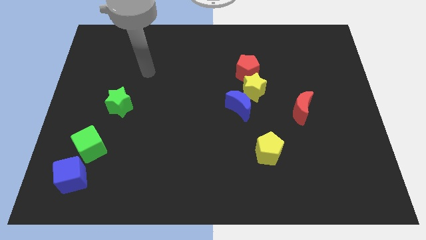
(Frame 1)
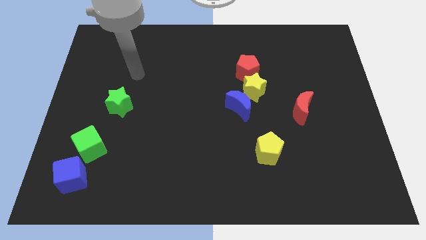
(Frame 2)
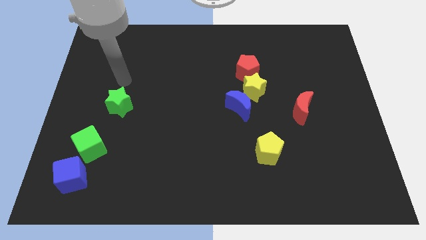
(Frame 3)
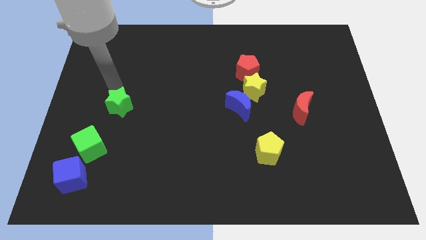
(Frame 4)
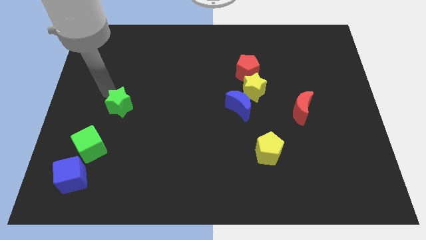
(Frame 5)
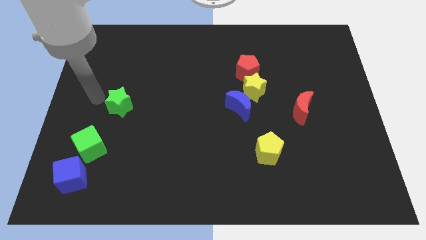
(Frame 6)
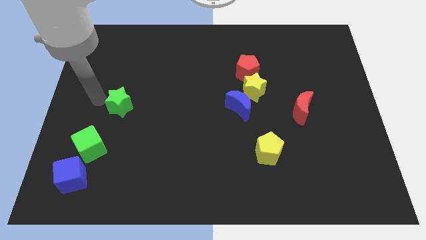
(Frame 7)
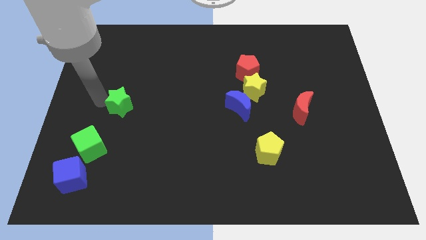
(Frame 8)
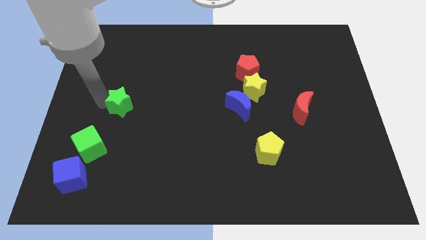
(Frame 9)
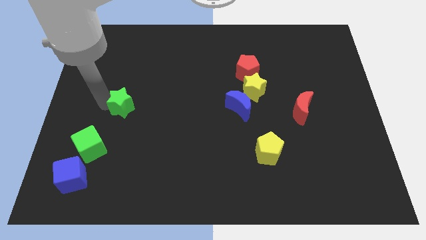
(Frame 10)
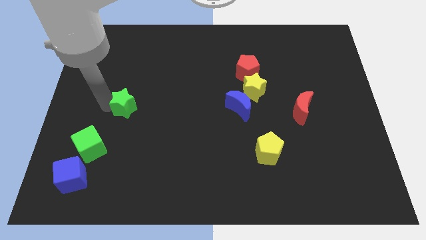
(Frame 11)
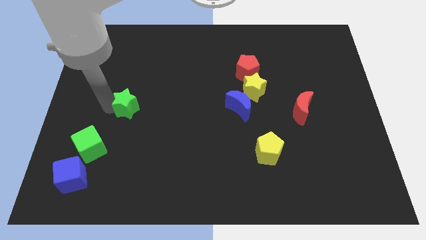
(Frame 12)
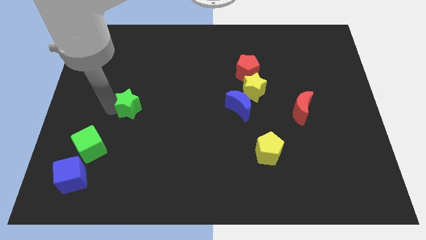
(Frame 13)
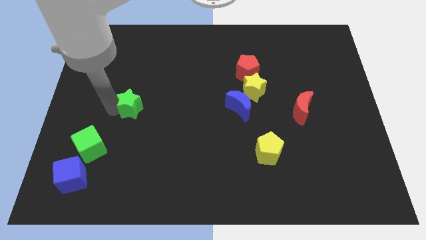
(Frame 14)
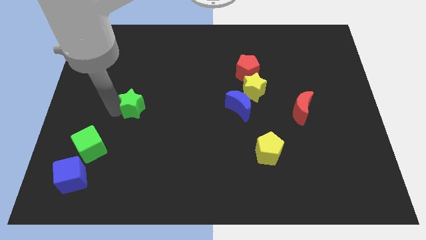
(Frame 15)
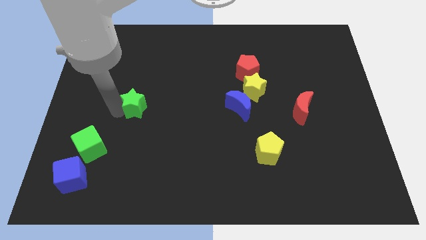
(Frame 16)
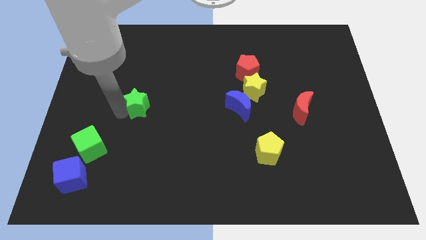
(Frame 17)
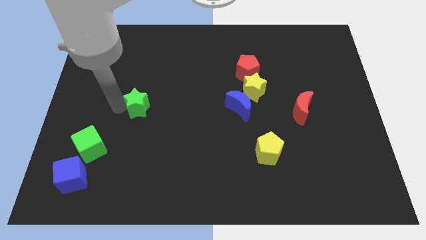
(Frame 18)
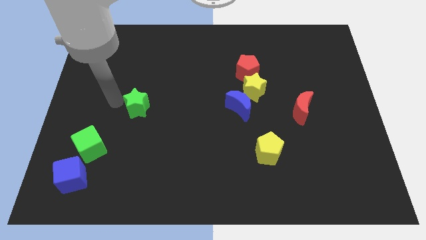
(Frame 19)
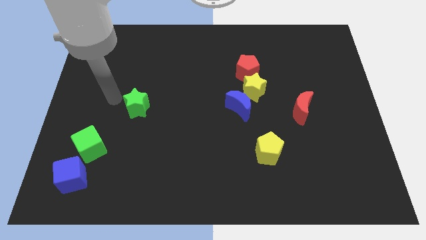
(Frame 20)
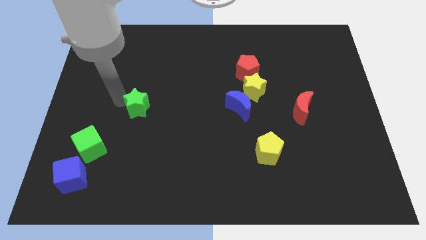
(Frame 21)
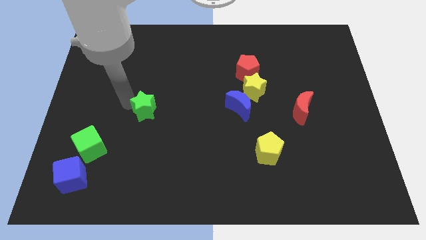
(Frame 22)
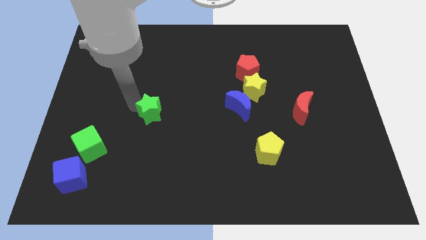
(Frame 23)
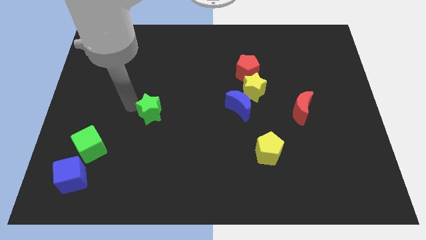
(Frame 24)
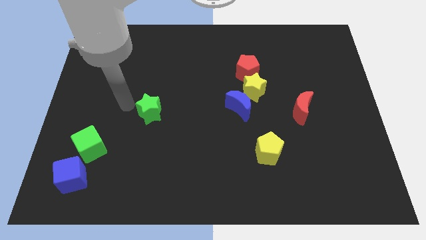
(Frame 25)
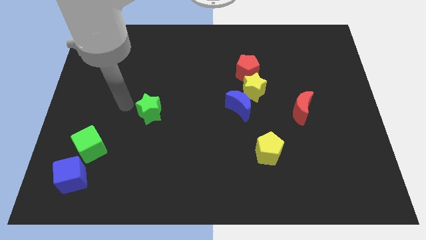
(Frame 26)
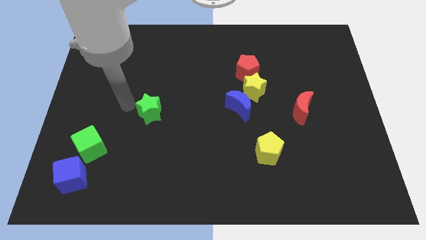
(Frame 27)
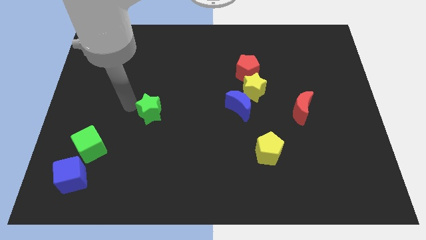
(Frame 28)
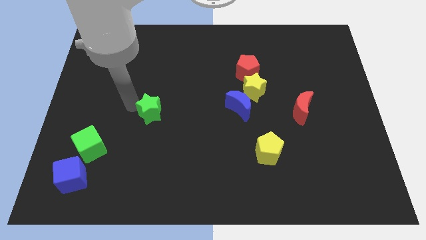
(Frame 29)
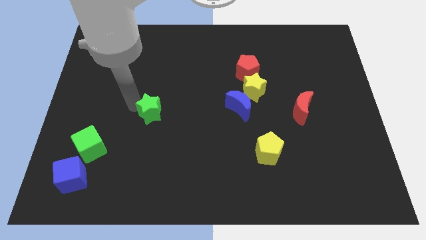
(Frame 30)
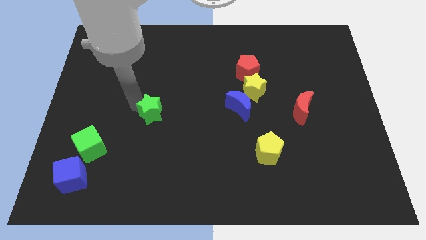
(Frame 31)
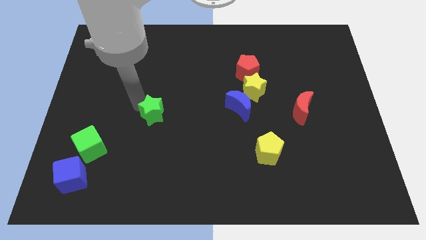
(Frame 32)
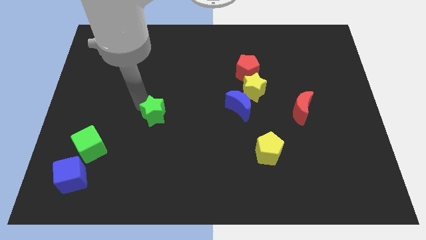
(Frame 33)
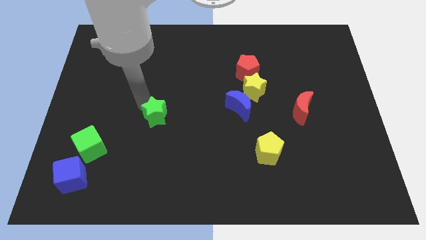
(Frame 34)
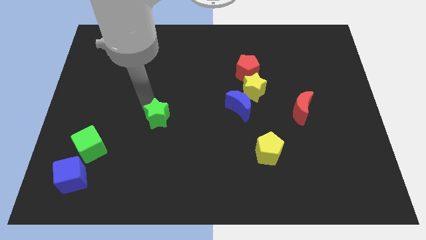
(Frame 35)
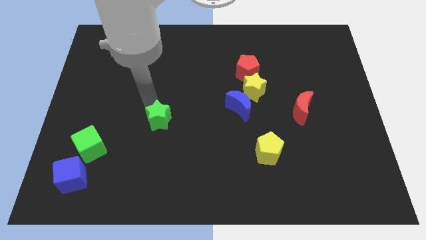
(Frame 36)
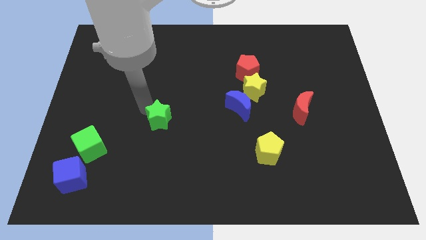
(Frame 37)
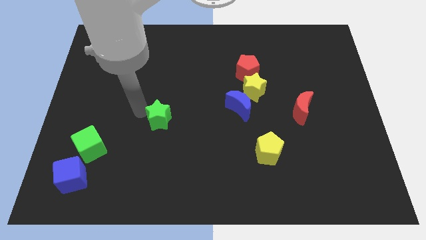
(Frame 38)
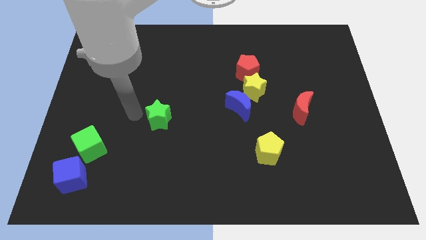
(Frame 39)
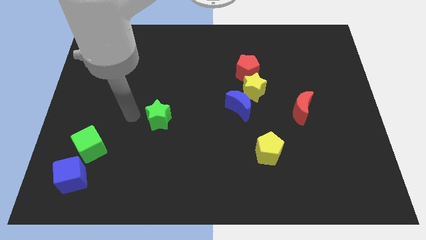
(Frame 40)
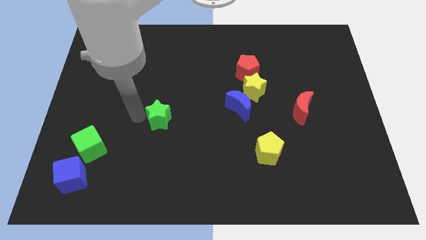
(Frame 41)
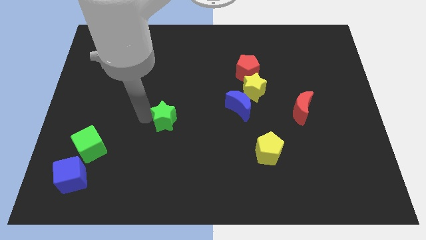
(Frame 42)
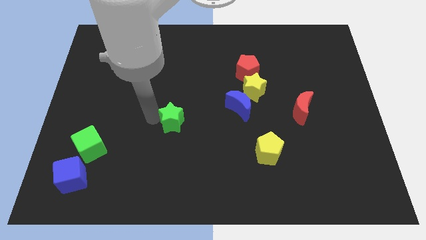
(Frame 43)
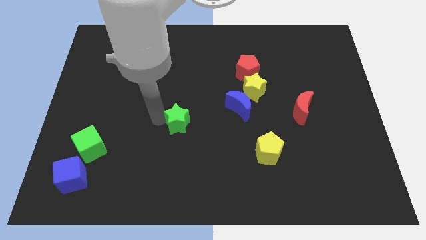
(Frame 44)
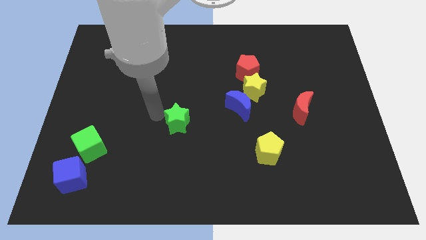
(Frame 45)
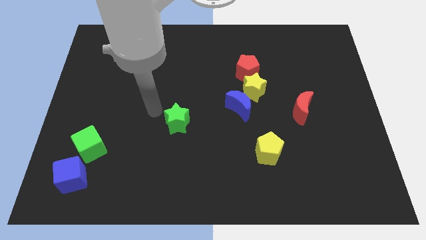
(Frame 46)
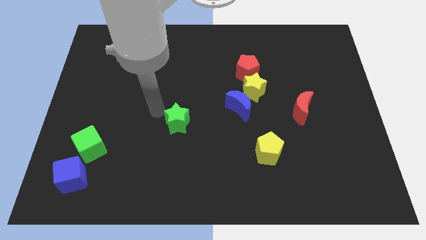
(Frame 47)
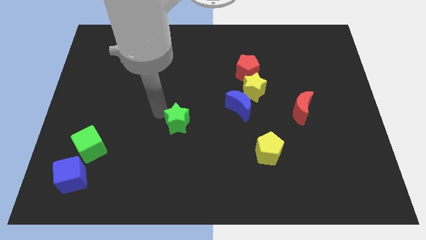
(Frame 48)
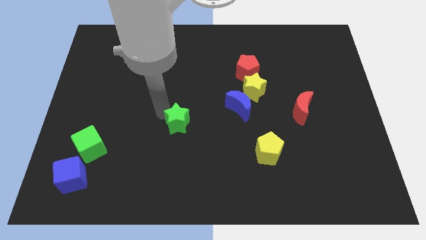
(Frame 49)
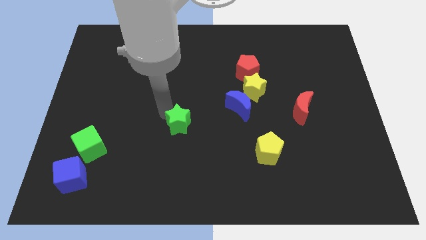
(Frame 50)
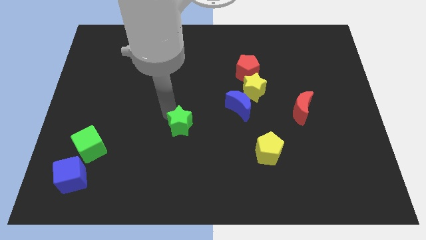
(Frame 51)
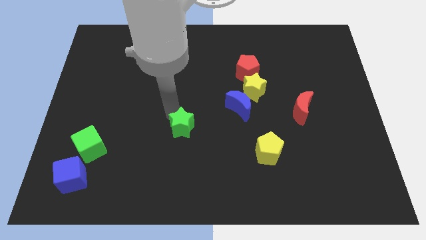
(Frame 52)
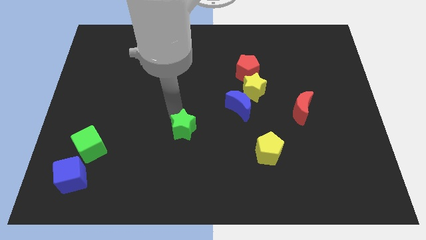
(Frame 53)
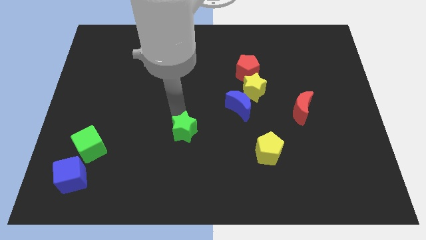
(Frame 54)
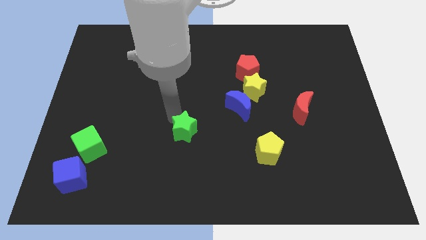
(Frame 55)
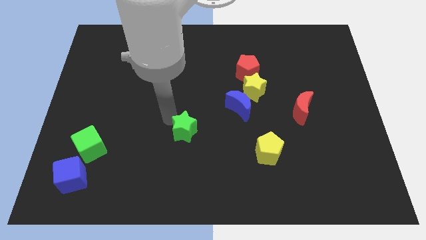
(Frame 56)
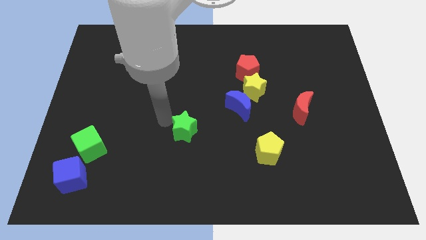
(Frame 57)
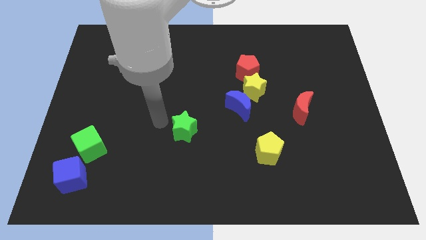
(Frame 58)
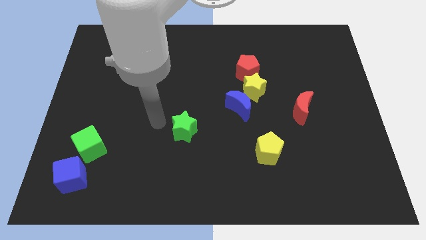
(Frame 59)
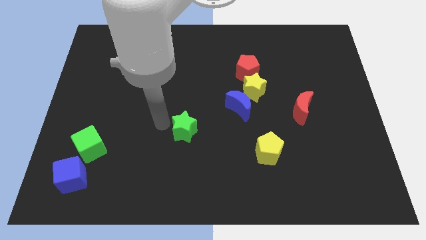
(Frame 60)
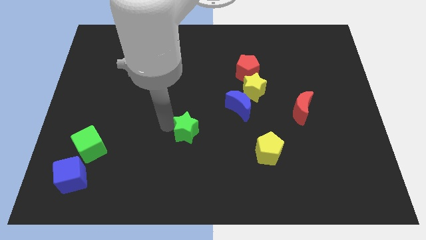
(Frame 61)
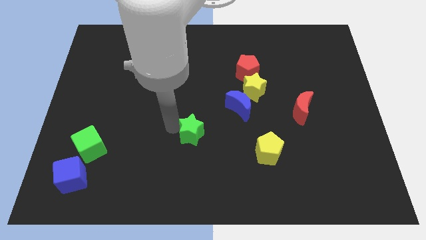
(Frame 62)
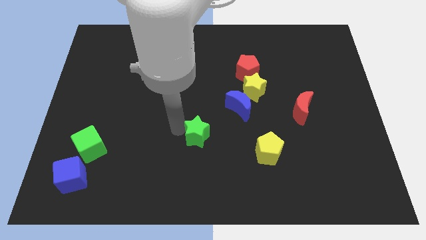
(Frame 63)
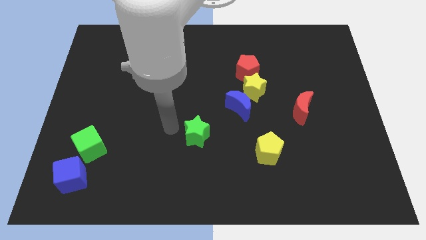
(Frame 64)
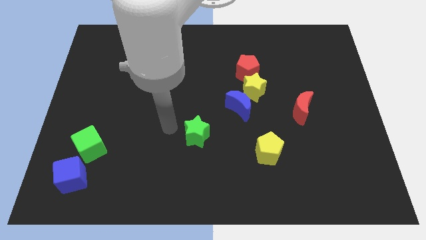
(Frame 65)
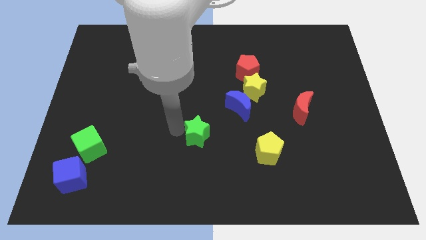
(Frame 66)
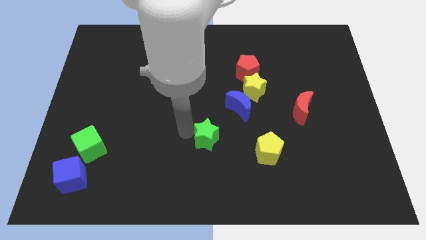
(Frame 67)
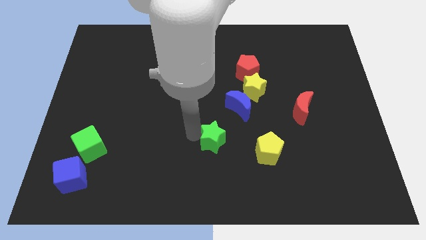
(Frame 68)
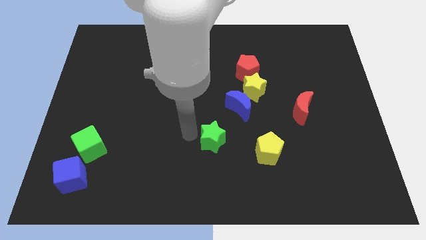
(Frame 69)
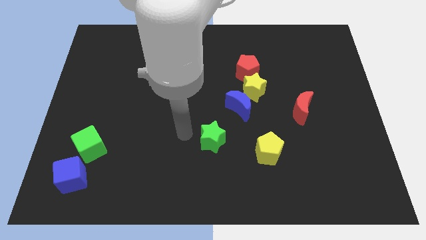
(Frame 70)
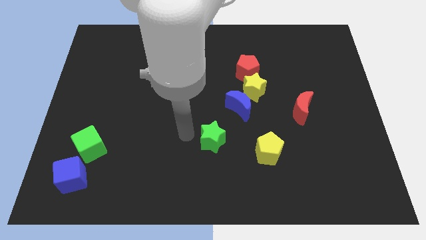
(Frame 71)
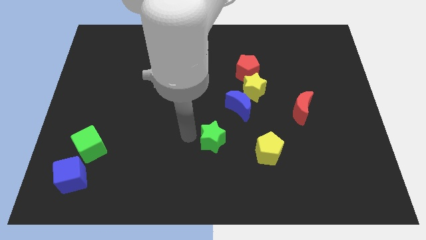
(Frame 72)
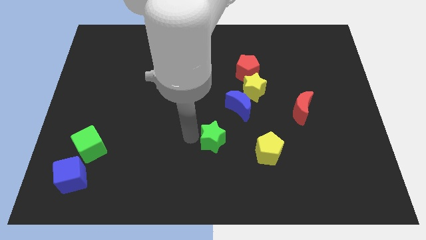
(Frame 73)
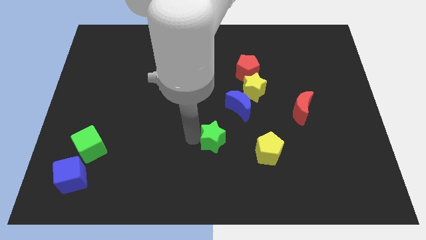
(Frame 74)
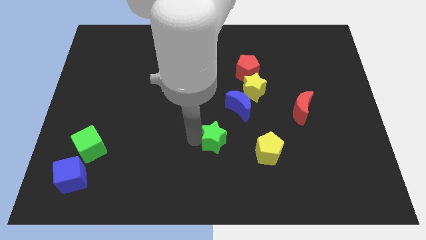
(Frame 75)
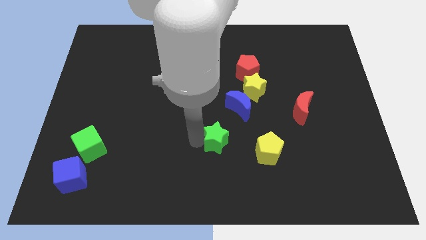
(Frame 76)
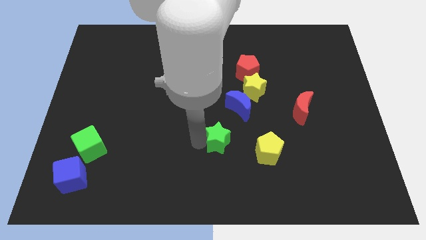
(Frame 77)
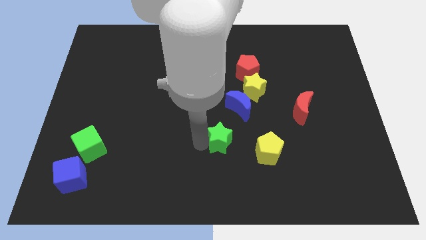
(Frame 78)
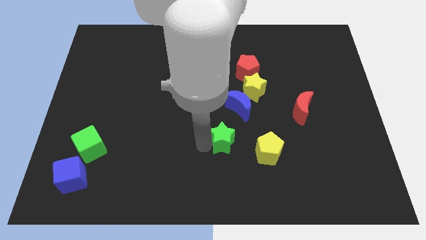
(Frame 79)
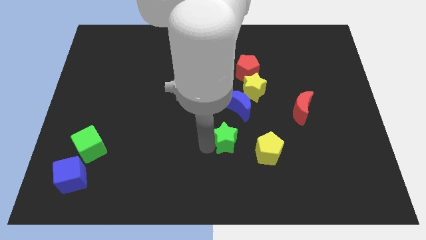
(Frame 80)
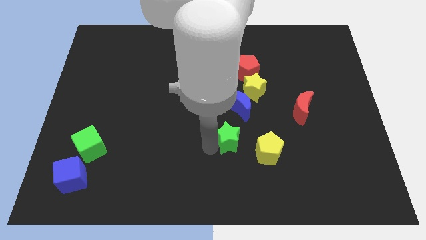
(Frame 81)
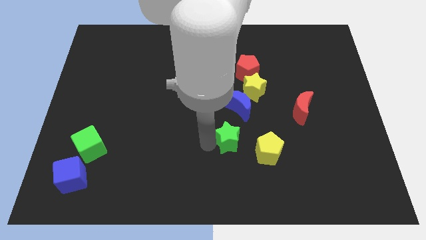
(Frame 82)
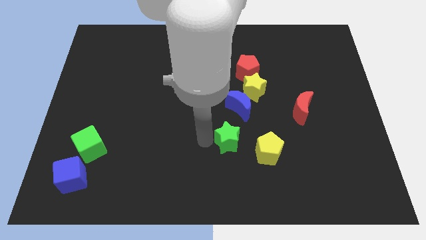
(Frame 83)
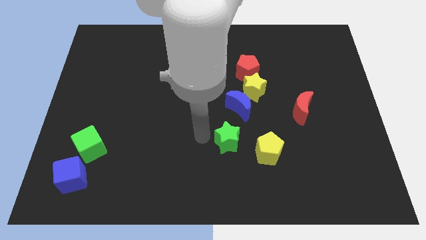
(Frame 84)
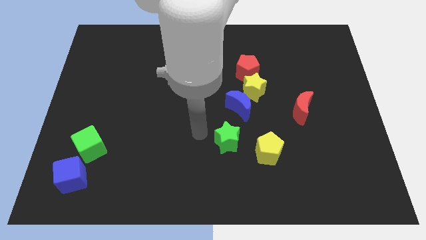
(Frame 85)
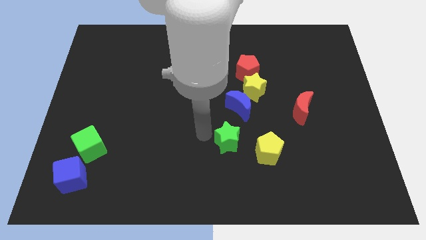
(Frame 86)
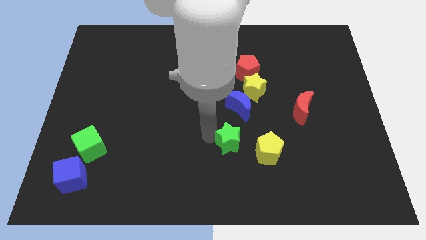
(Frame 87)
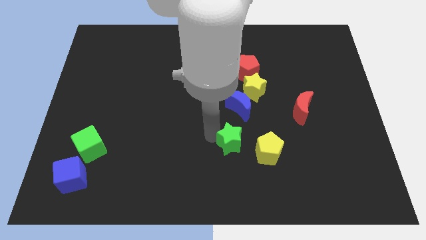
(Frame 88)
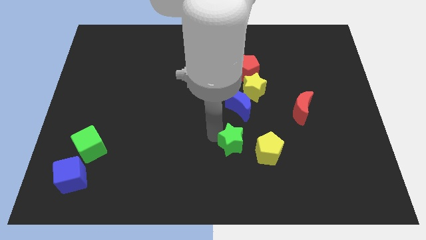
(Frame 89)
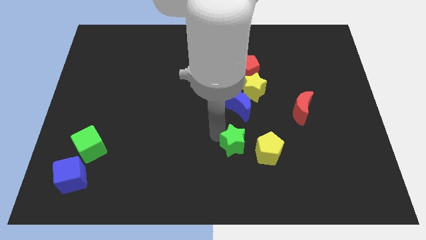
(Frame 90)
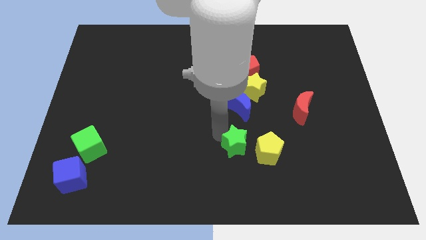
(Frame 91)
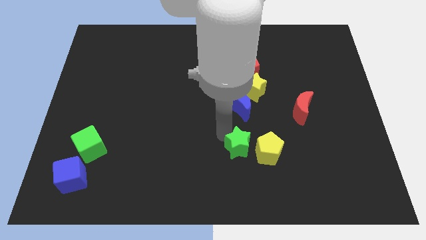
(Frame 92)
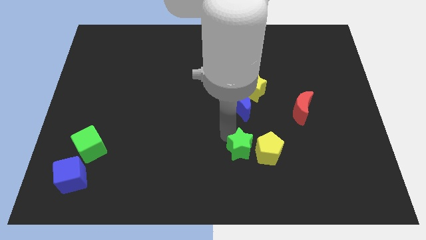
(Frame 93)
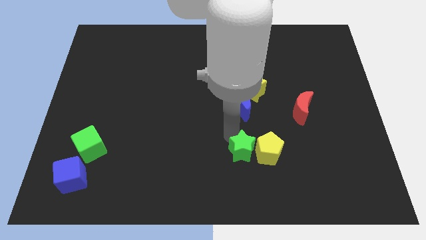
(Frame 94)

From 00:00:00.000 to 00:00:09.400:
push the green star to the yellow pentagon
